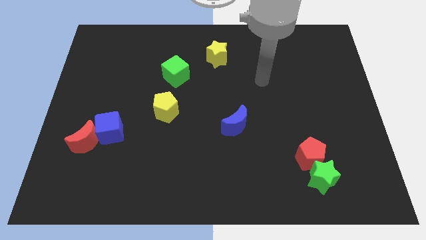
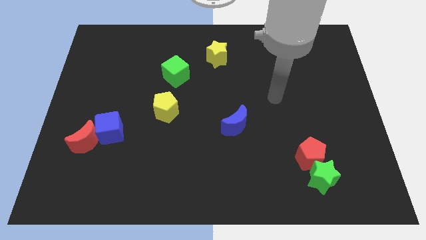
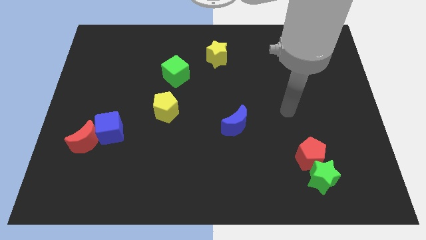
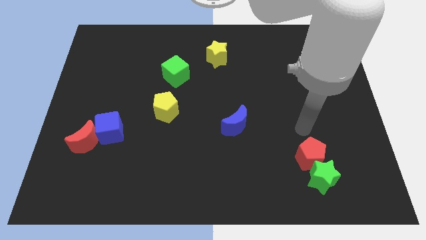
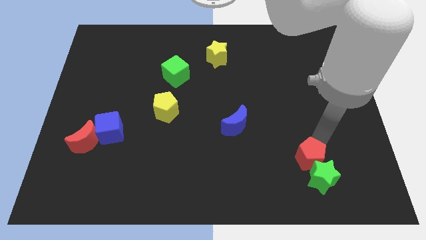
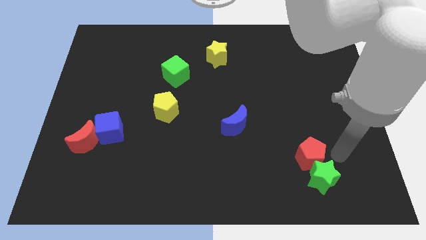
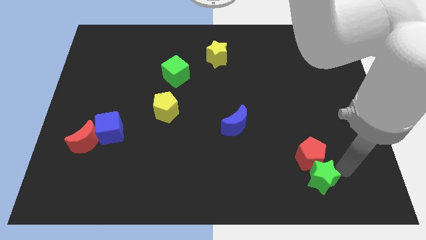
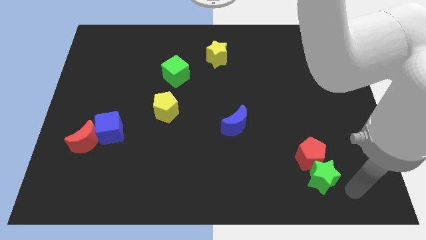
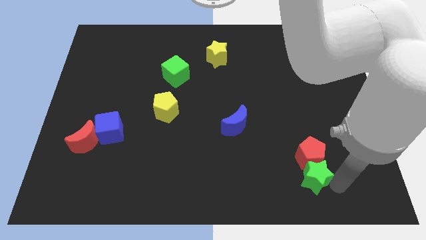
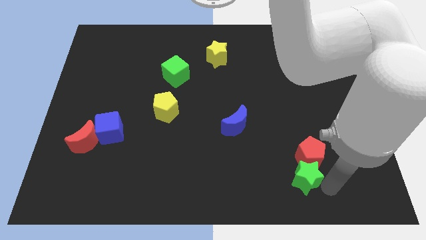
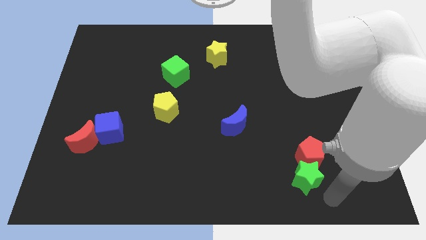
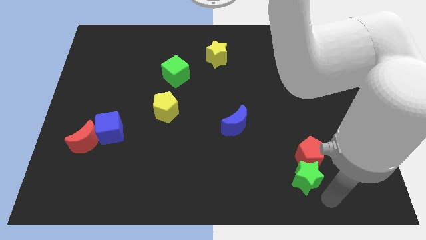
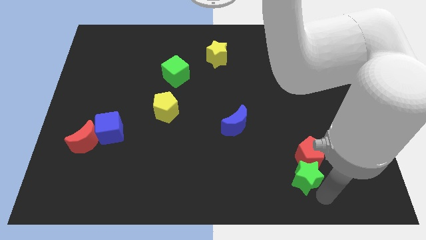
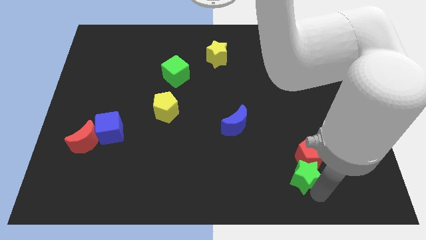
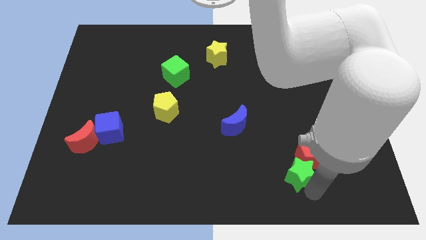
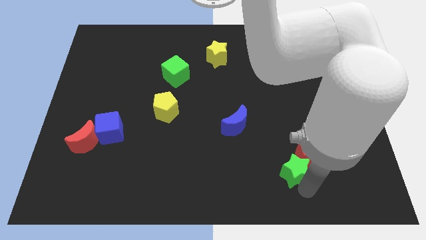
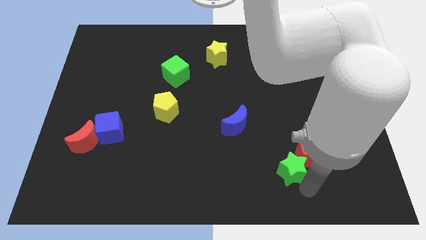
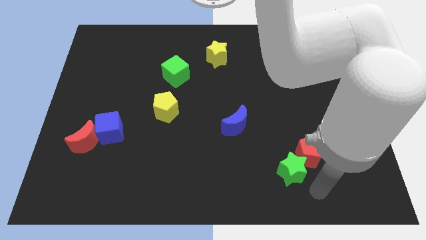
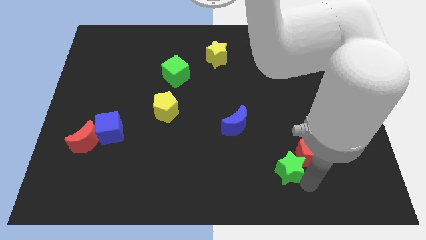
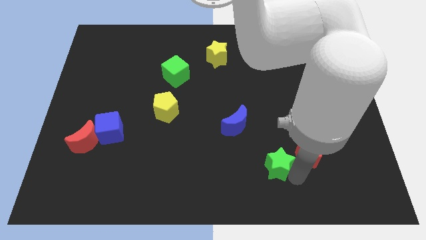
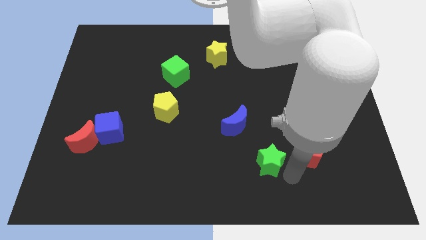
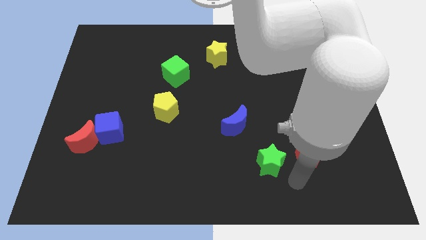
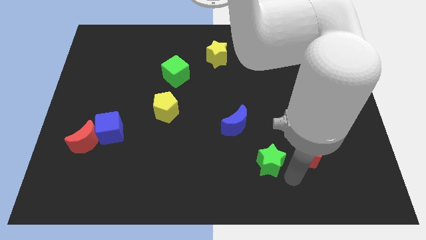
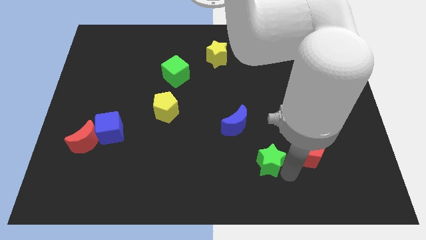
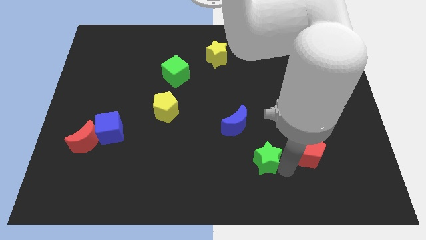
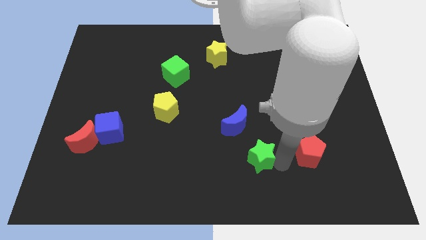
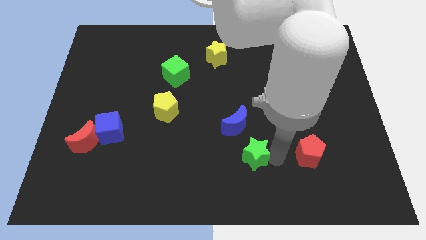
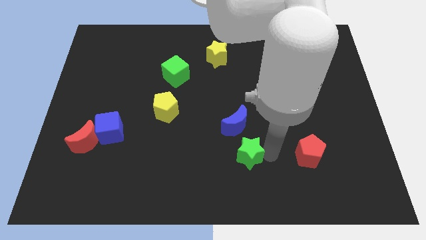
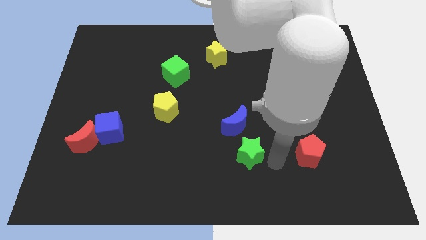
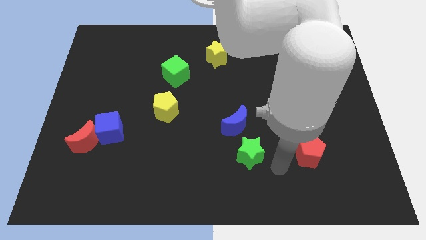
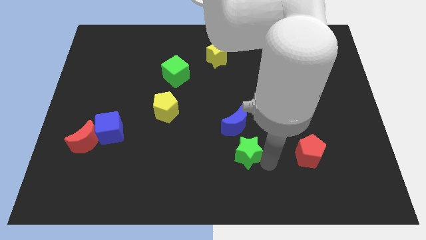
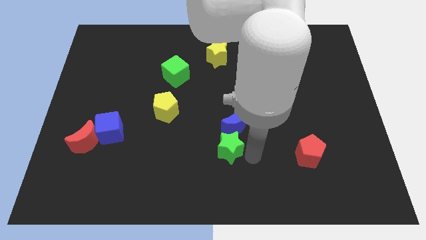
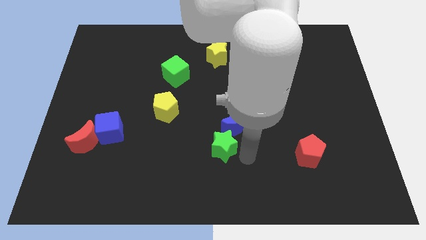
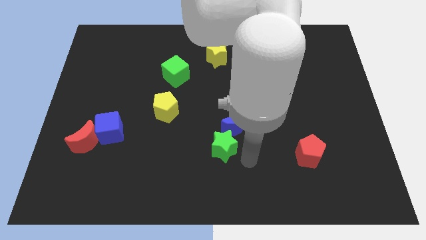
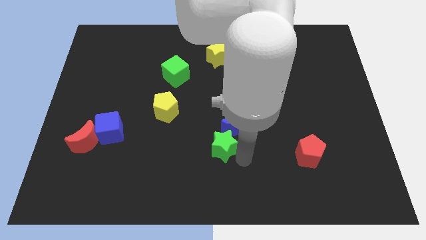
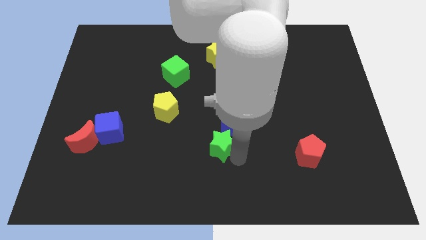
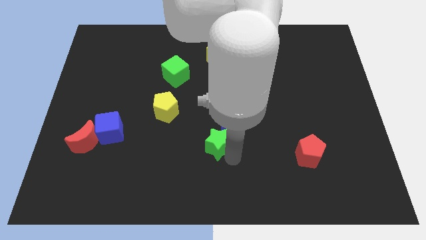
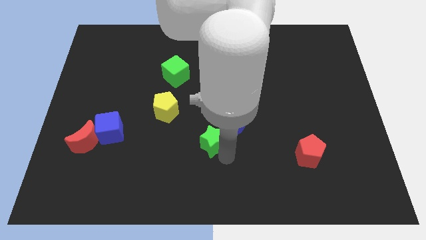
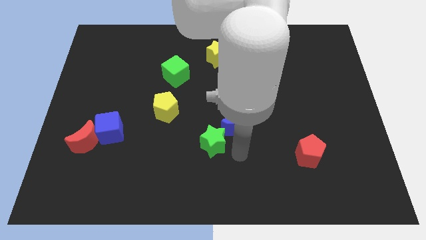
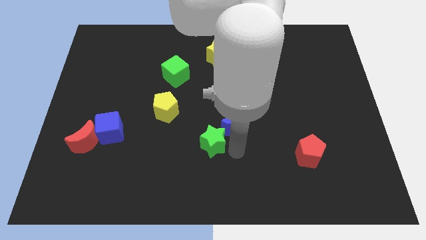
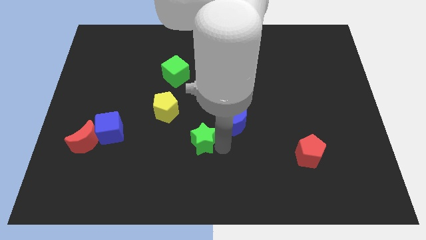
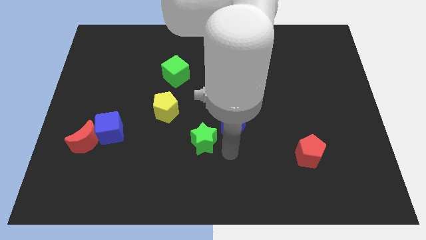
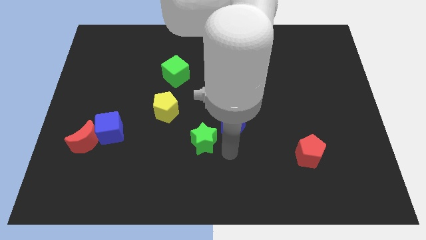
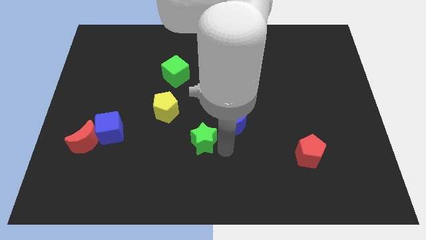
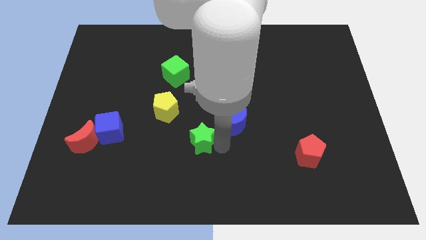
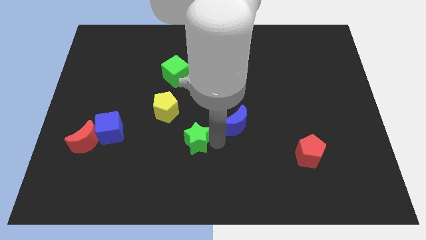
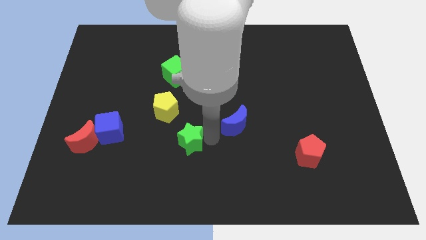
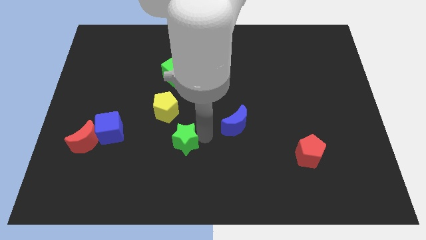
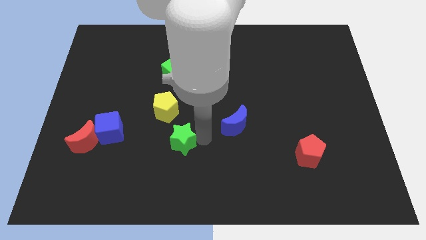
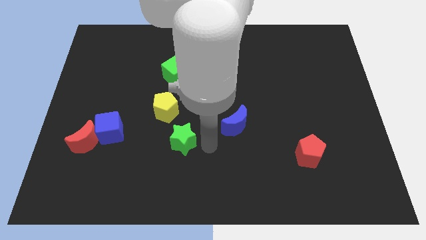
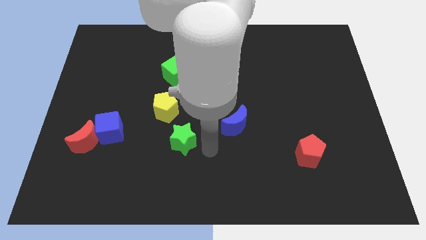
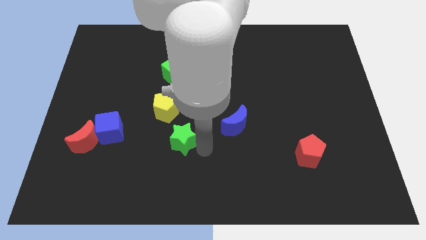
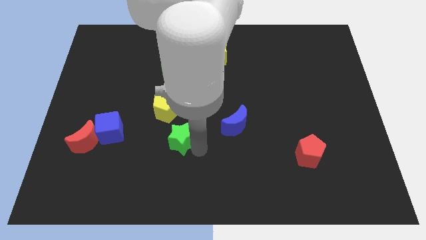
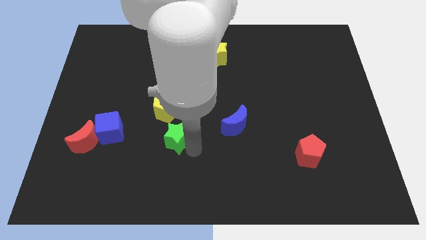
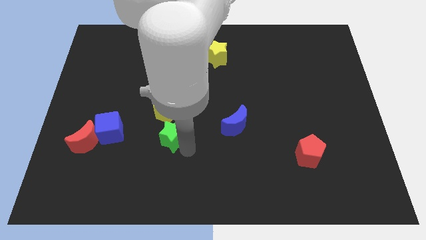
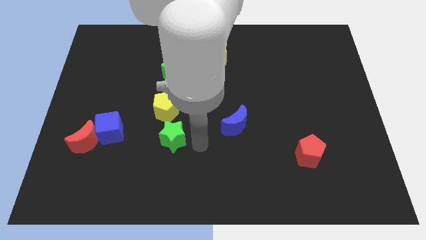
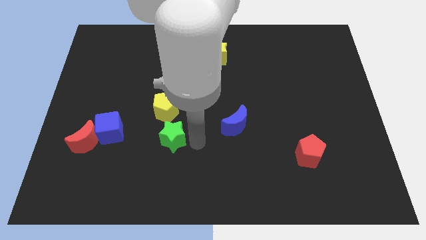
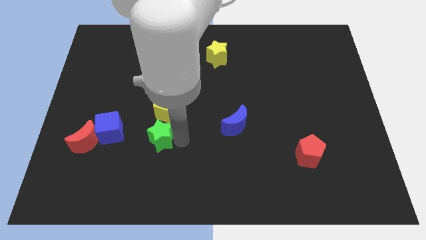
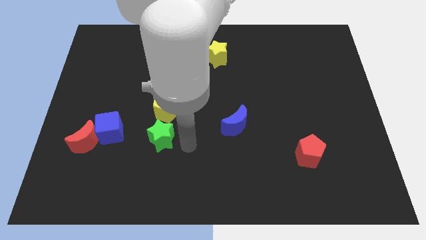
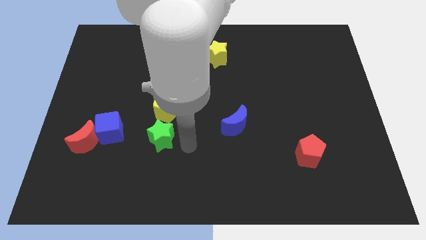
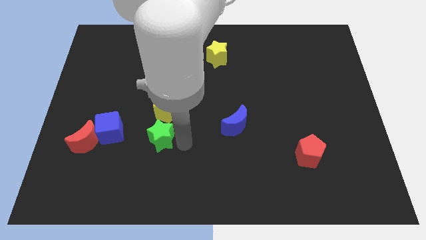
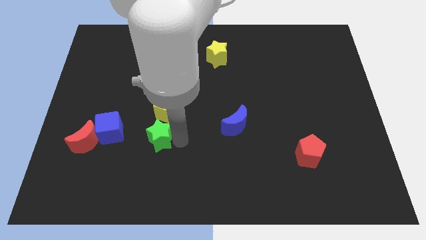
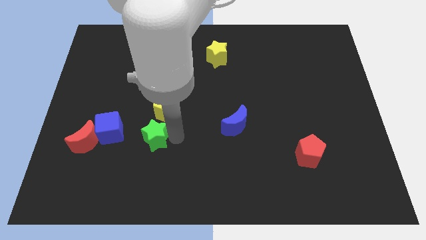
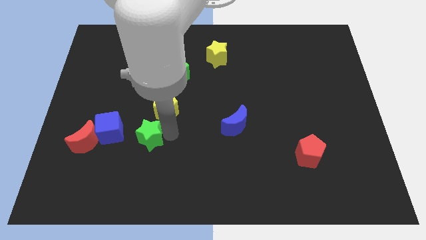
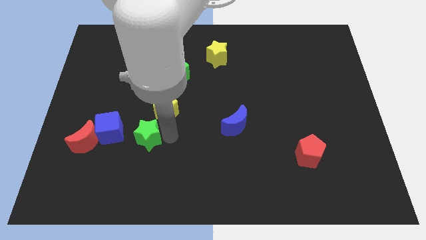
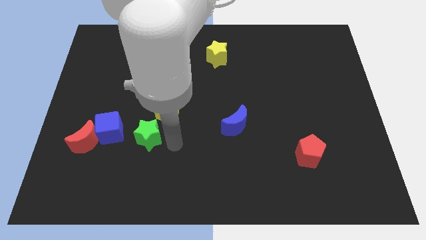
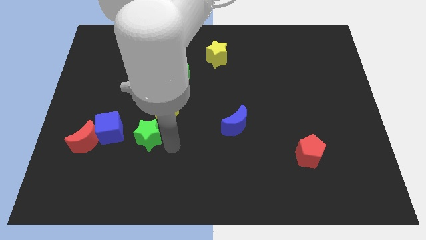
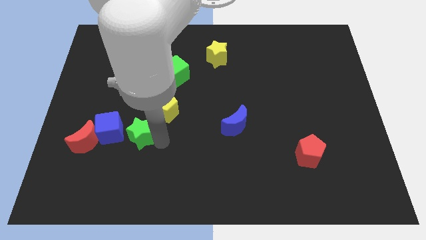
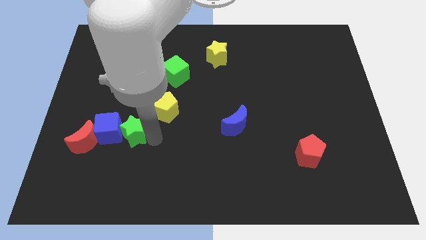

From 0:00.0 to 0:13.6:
move the green star close to the blue cube
